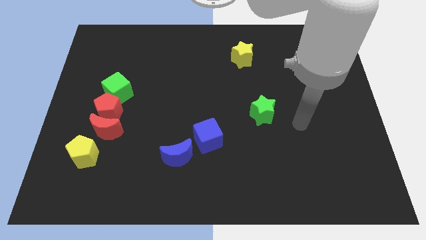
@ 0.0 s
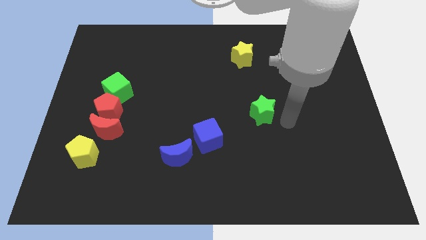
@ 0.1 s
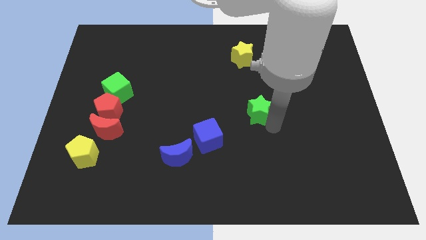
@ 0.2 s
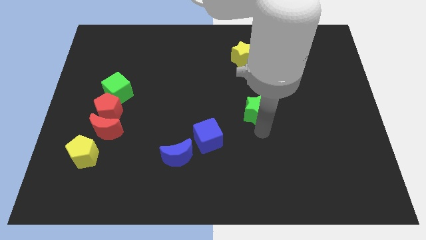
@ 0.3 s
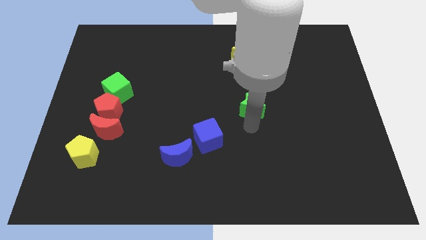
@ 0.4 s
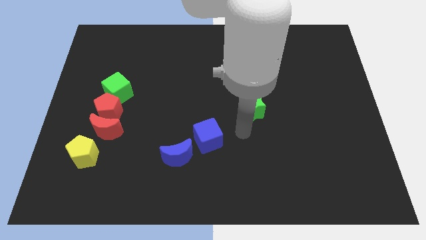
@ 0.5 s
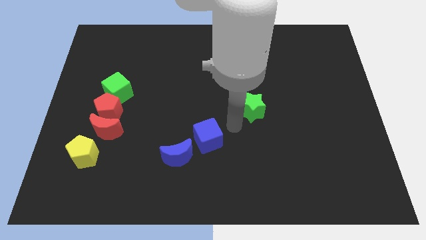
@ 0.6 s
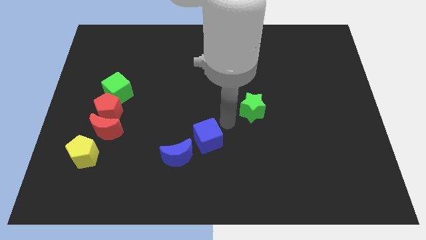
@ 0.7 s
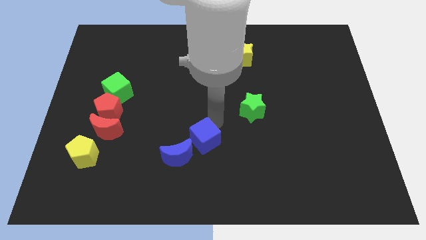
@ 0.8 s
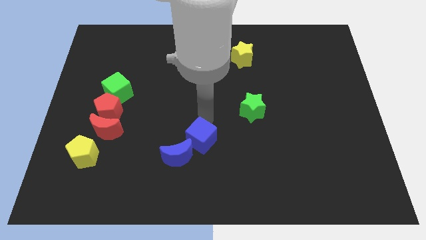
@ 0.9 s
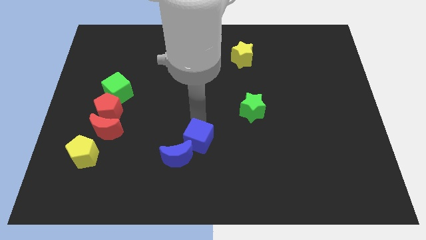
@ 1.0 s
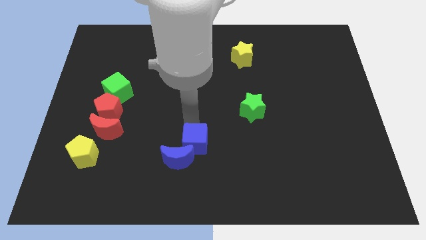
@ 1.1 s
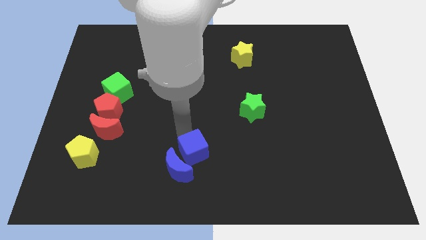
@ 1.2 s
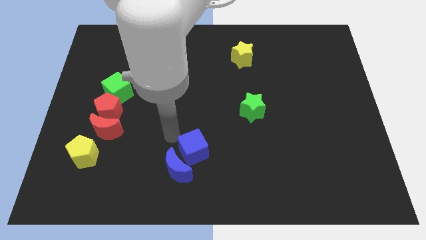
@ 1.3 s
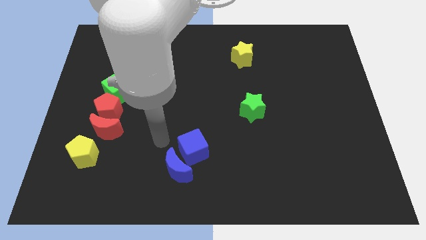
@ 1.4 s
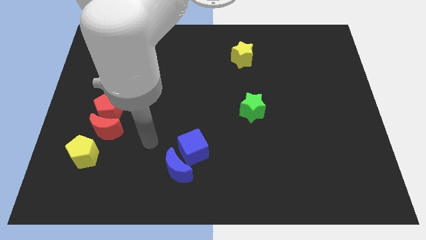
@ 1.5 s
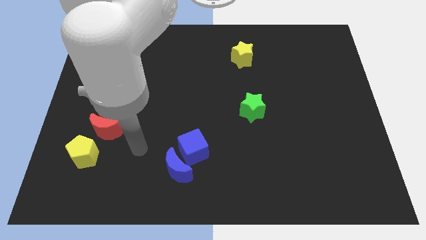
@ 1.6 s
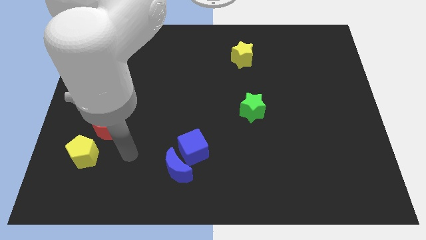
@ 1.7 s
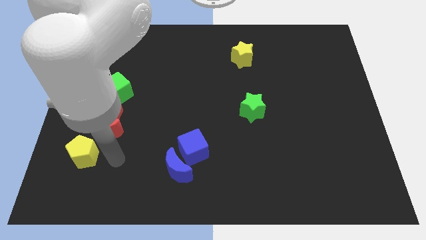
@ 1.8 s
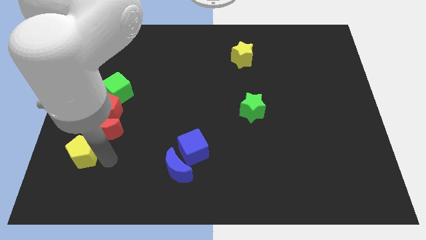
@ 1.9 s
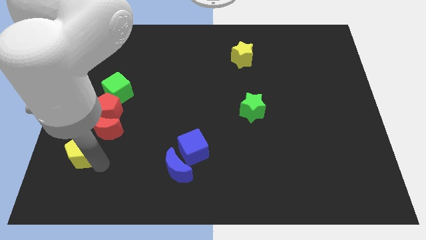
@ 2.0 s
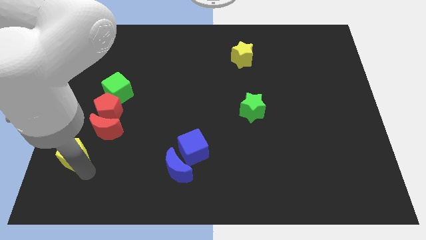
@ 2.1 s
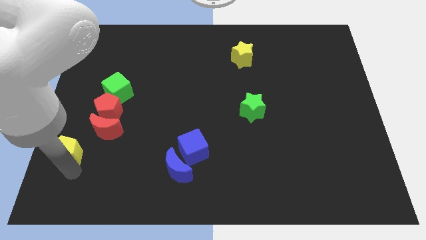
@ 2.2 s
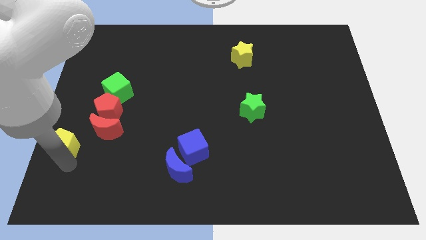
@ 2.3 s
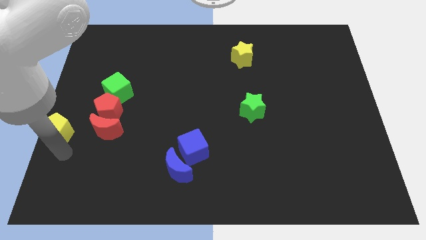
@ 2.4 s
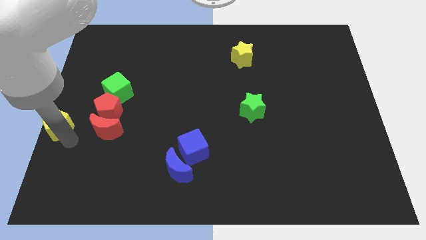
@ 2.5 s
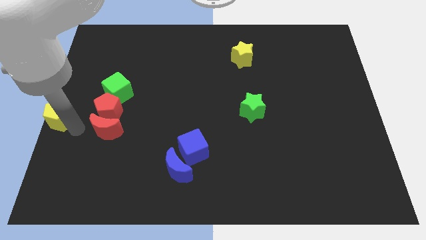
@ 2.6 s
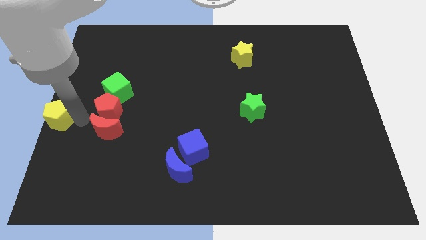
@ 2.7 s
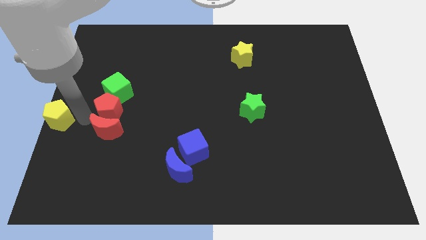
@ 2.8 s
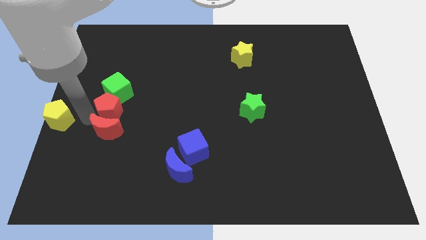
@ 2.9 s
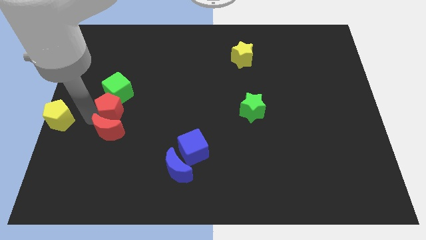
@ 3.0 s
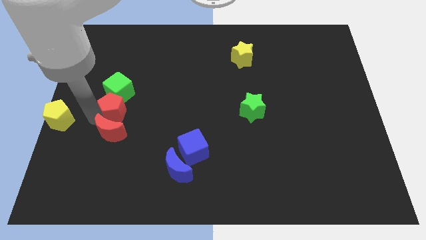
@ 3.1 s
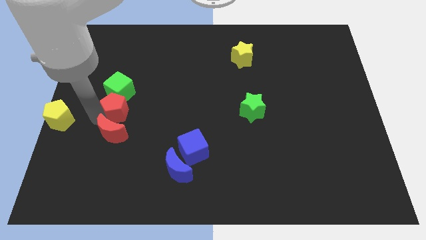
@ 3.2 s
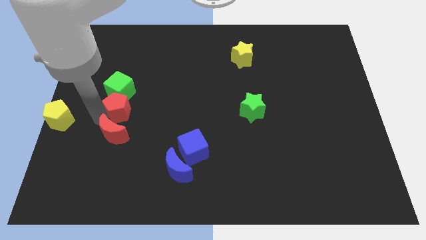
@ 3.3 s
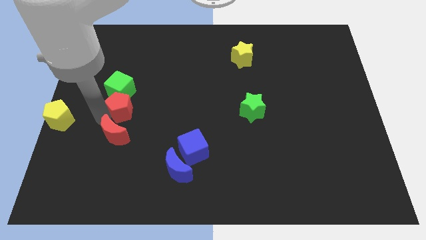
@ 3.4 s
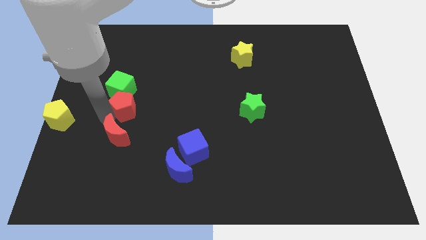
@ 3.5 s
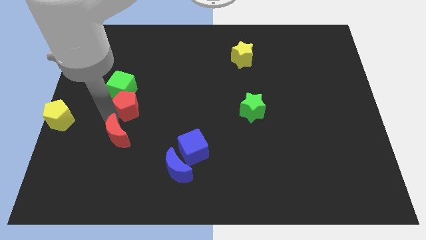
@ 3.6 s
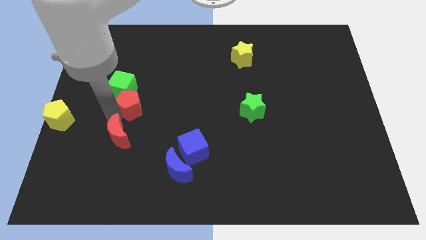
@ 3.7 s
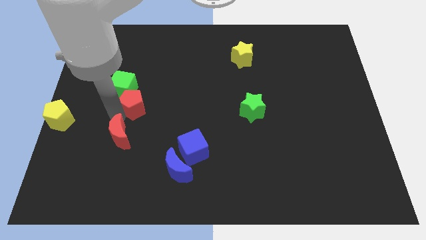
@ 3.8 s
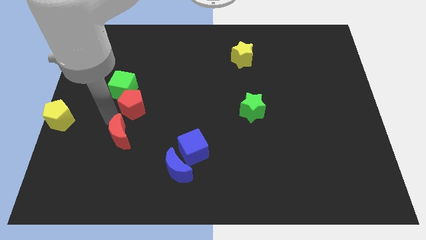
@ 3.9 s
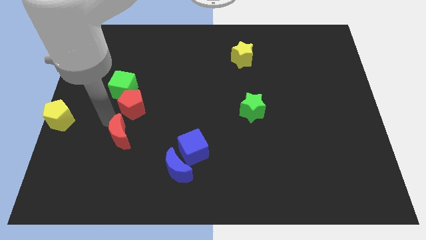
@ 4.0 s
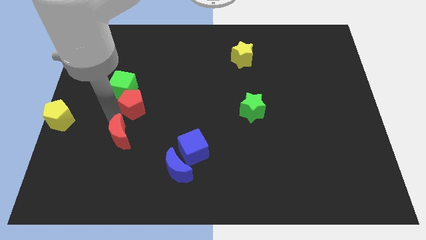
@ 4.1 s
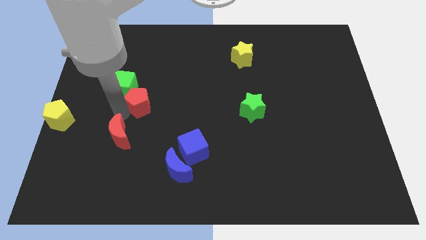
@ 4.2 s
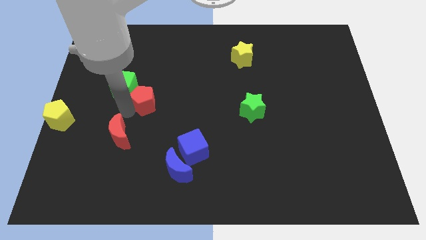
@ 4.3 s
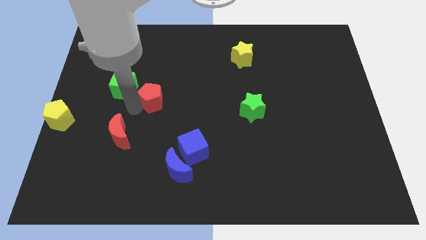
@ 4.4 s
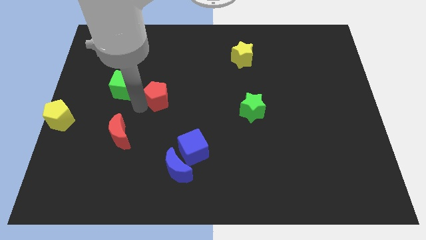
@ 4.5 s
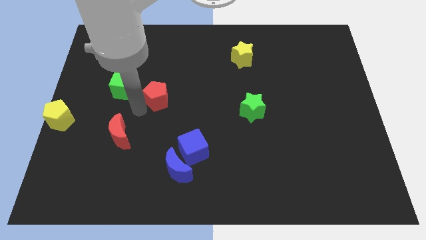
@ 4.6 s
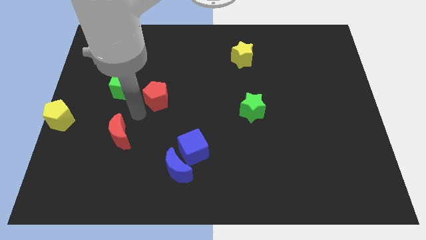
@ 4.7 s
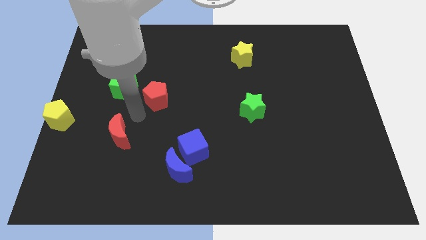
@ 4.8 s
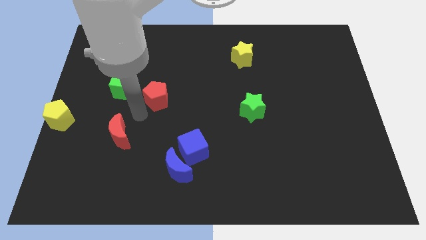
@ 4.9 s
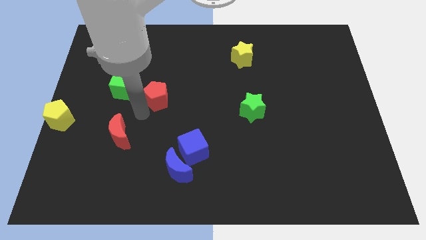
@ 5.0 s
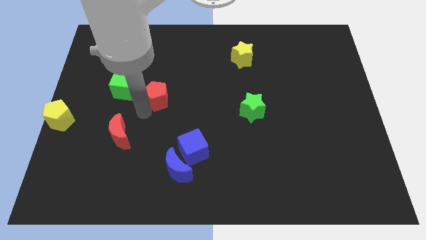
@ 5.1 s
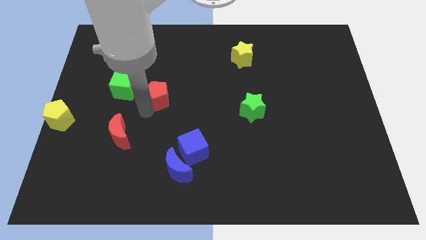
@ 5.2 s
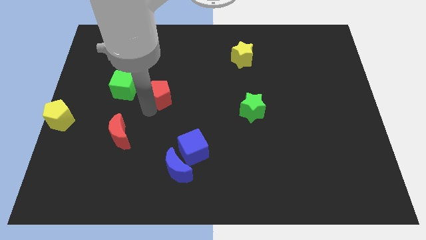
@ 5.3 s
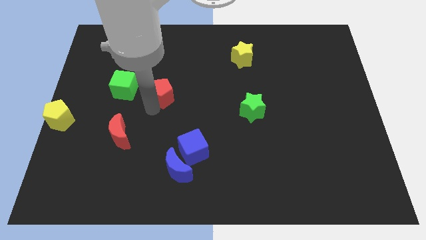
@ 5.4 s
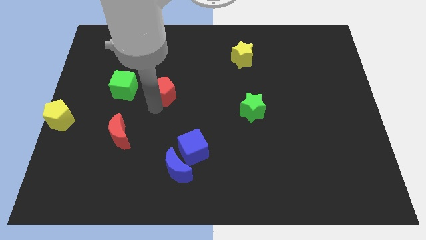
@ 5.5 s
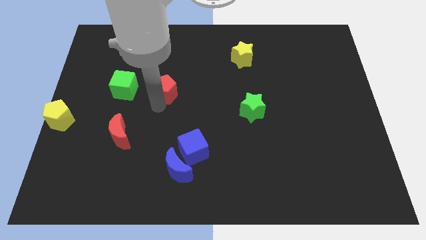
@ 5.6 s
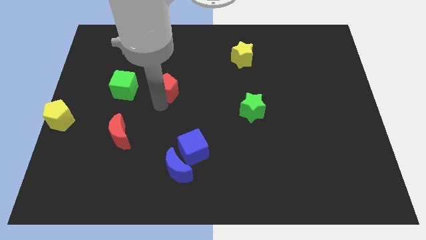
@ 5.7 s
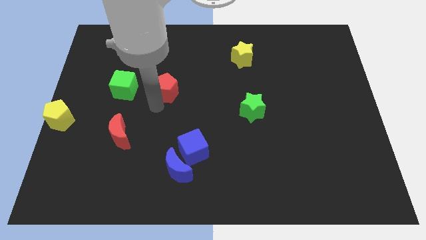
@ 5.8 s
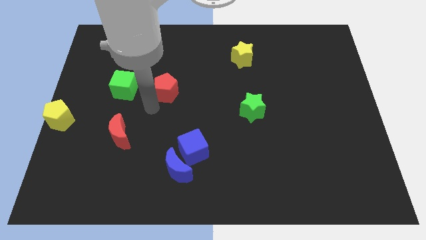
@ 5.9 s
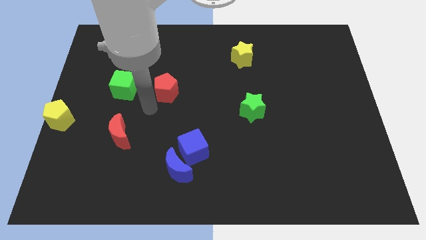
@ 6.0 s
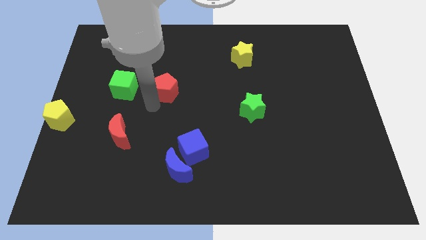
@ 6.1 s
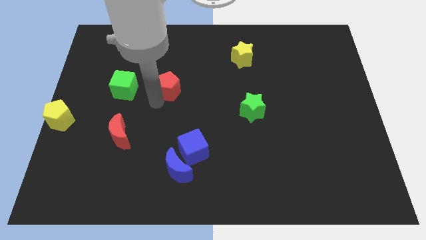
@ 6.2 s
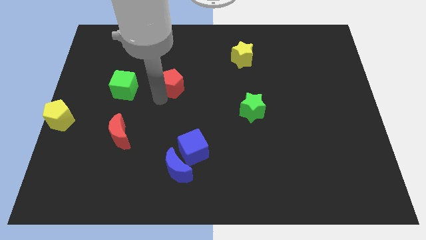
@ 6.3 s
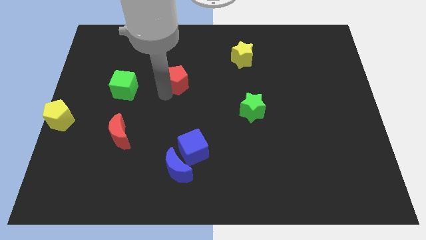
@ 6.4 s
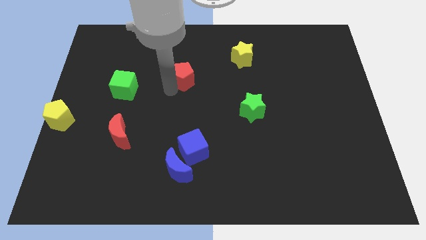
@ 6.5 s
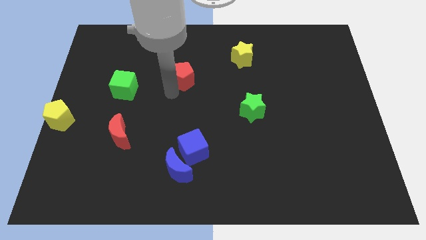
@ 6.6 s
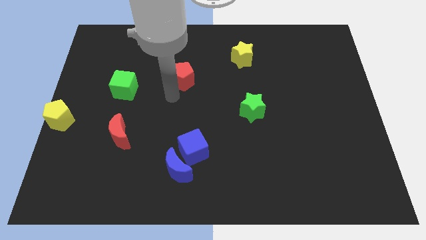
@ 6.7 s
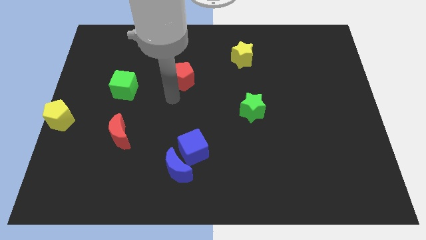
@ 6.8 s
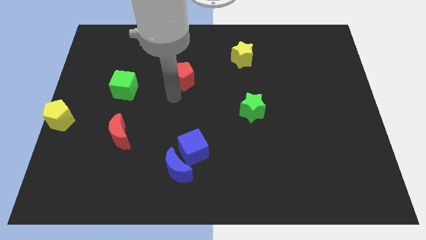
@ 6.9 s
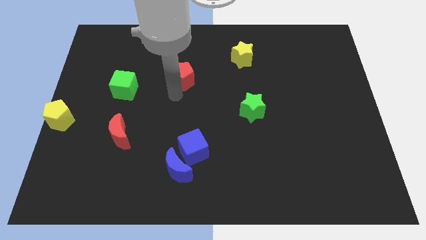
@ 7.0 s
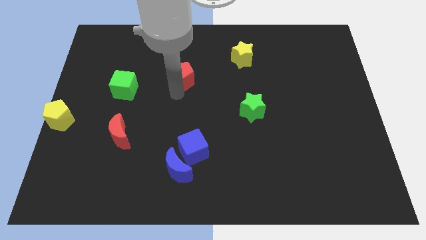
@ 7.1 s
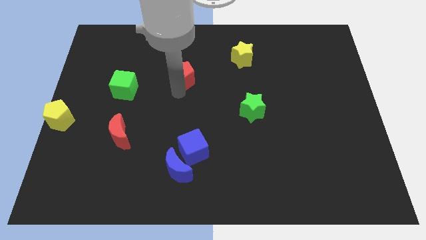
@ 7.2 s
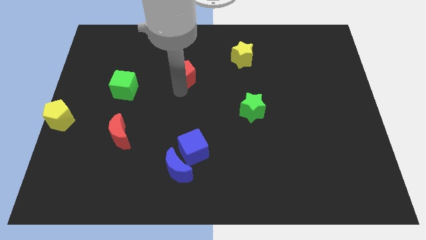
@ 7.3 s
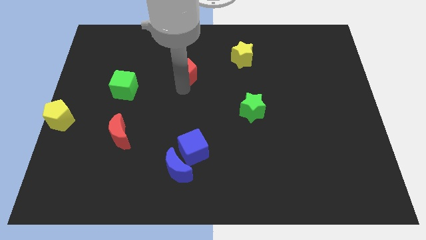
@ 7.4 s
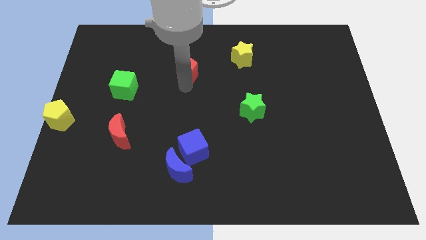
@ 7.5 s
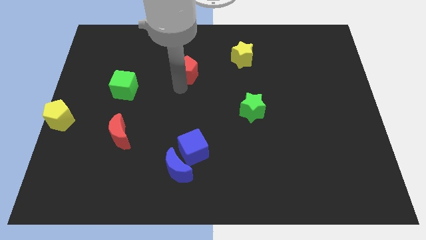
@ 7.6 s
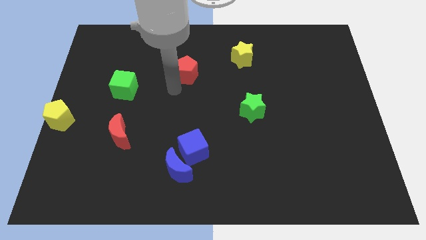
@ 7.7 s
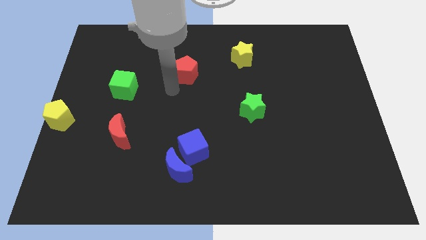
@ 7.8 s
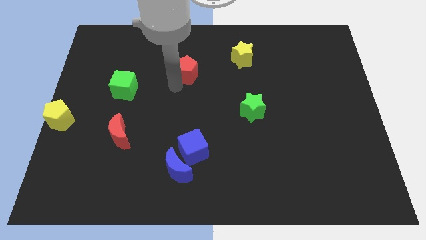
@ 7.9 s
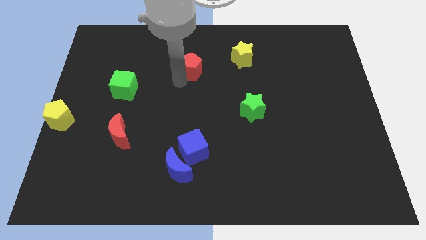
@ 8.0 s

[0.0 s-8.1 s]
put the red pentagon to the left side of the yellow star
